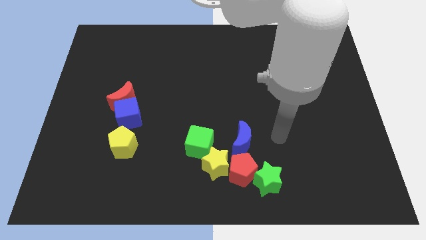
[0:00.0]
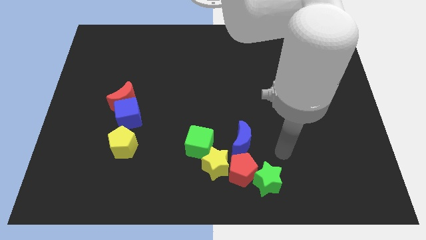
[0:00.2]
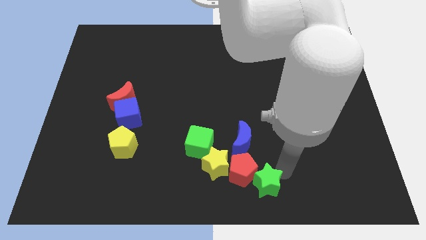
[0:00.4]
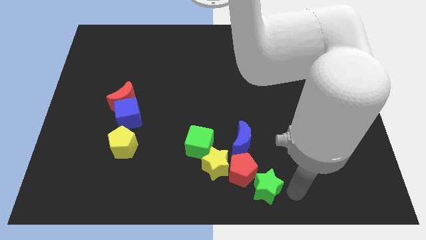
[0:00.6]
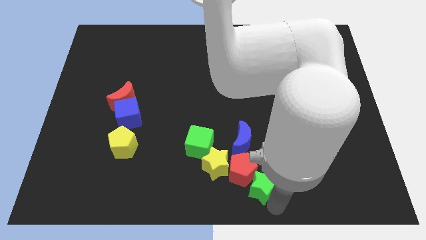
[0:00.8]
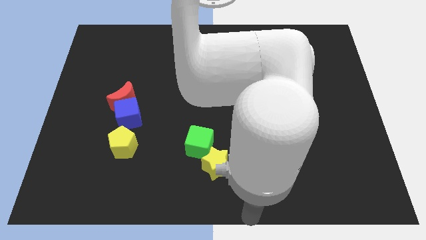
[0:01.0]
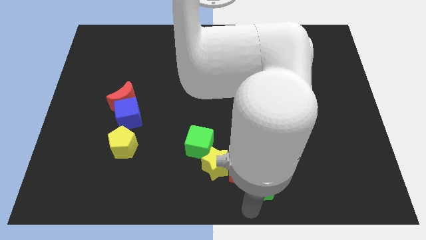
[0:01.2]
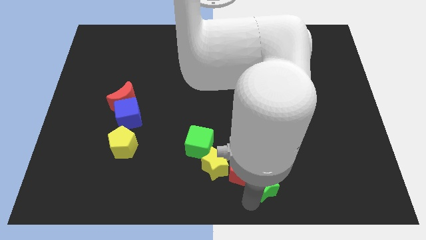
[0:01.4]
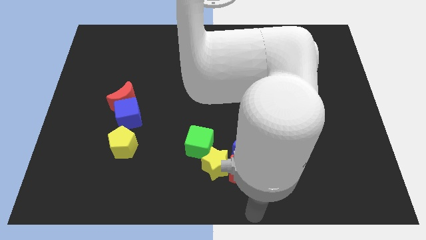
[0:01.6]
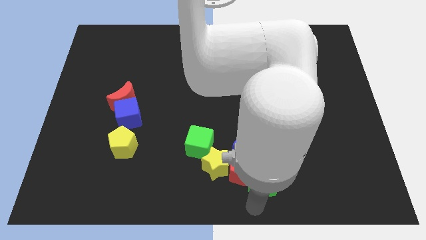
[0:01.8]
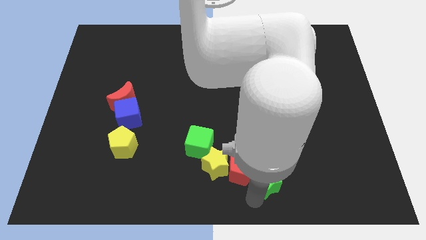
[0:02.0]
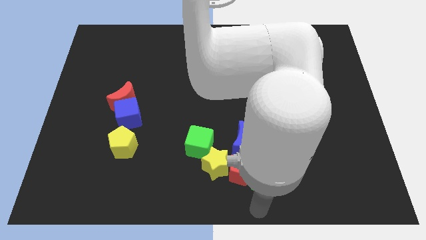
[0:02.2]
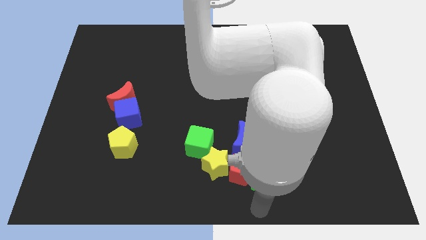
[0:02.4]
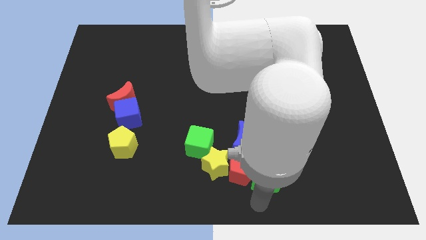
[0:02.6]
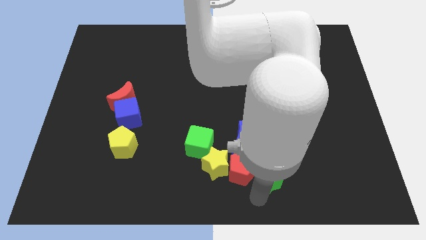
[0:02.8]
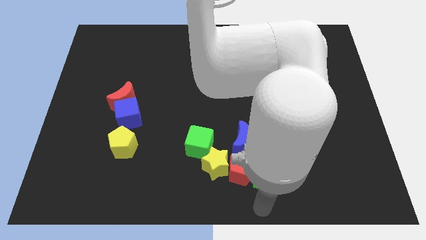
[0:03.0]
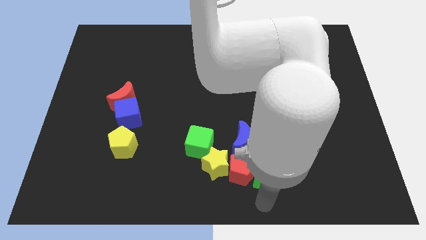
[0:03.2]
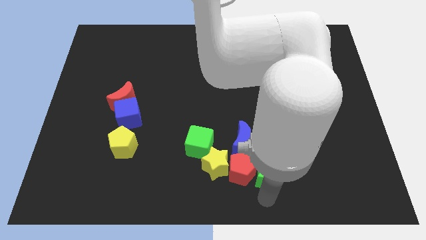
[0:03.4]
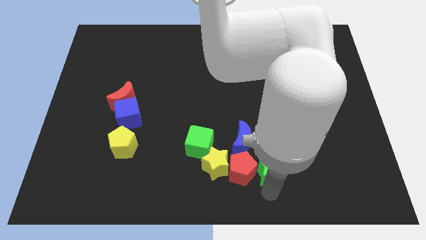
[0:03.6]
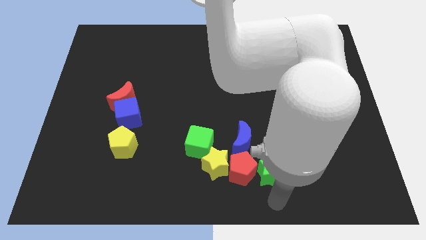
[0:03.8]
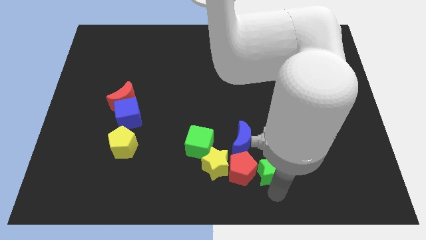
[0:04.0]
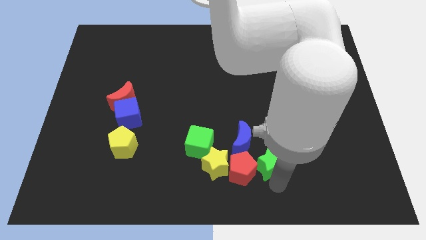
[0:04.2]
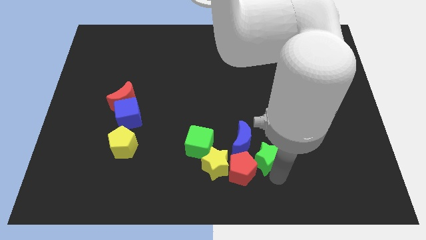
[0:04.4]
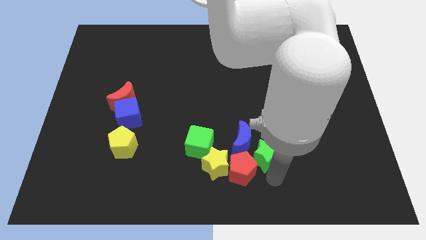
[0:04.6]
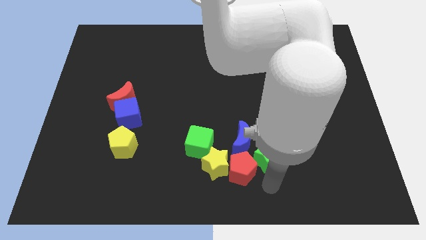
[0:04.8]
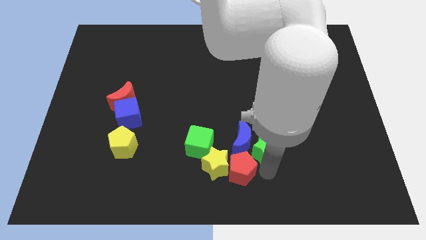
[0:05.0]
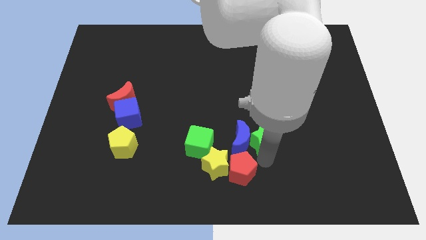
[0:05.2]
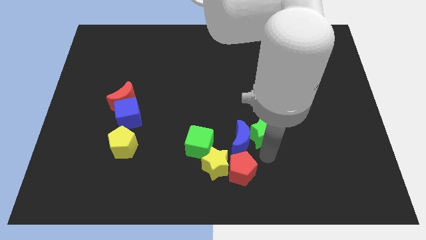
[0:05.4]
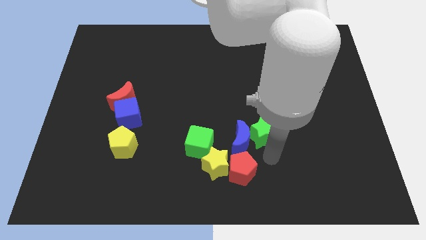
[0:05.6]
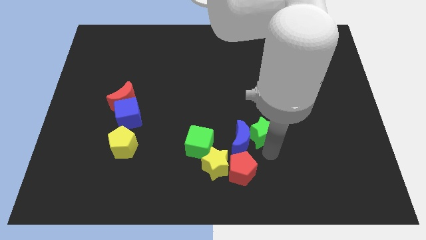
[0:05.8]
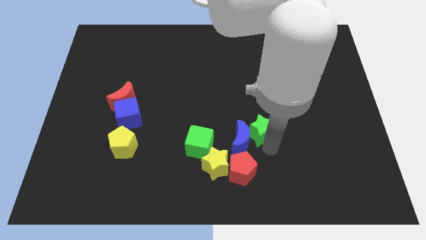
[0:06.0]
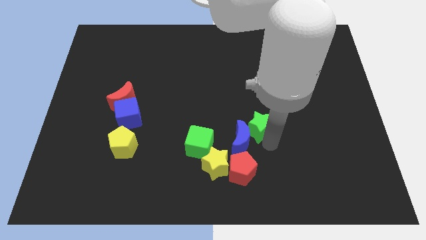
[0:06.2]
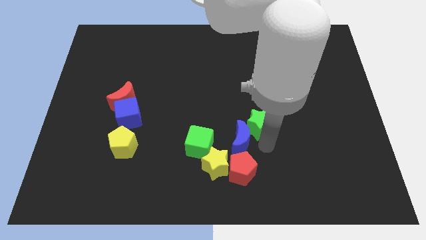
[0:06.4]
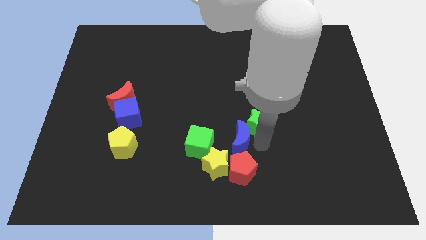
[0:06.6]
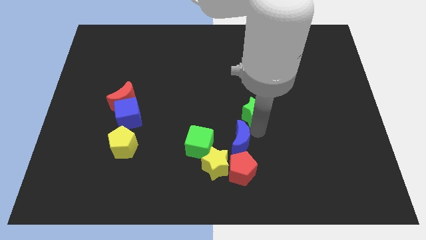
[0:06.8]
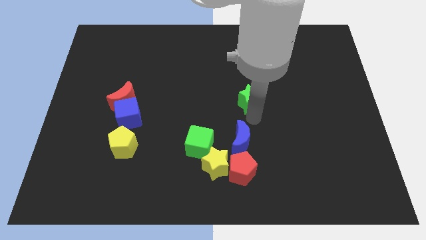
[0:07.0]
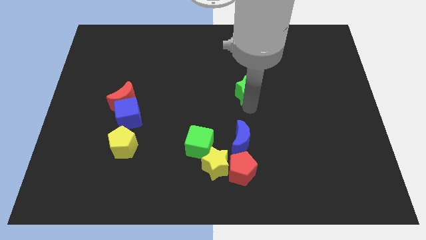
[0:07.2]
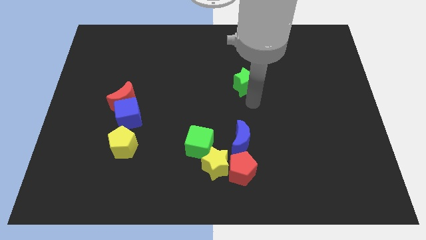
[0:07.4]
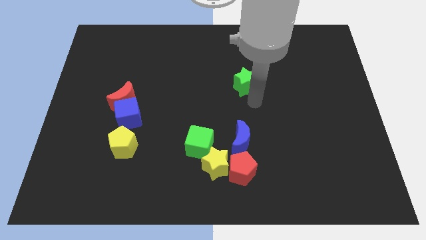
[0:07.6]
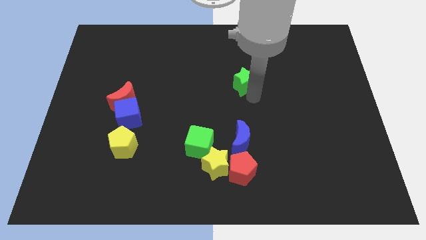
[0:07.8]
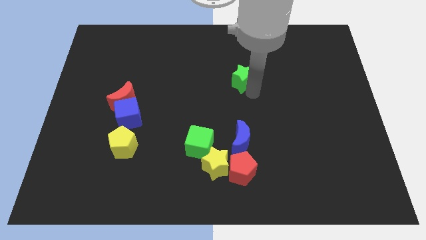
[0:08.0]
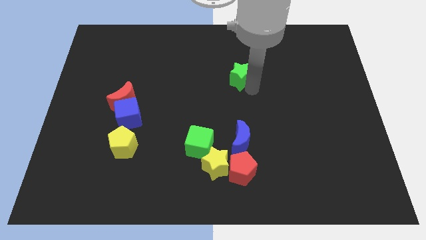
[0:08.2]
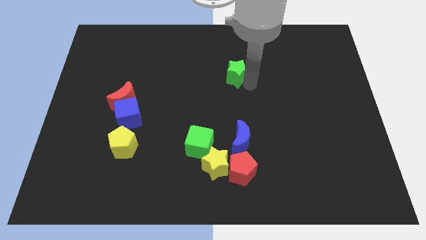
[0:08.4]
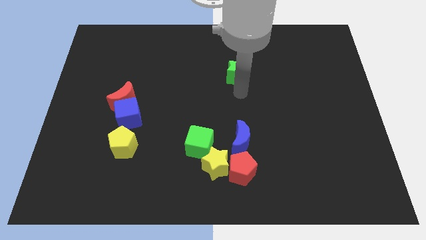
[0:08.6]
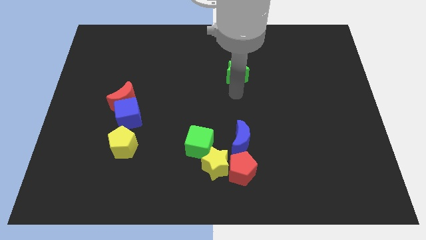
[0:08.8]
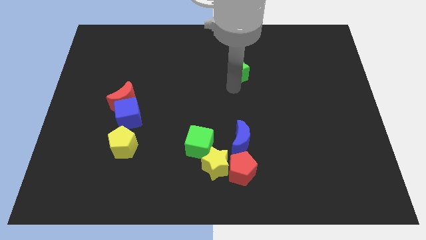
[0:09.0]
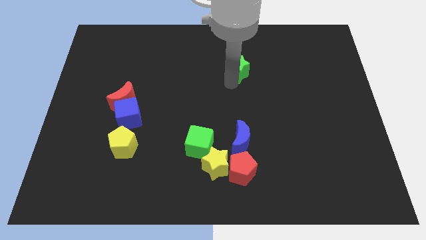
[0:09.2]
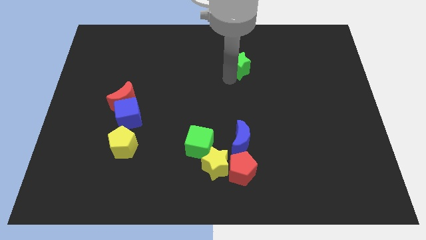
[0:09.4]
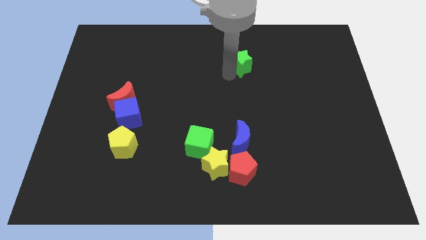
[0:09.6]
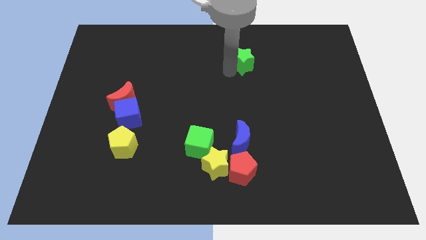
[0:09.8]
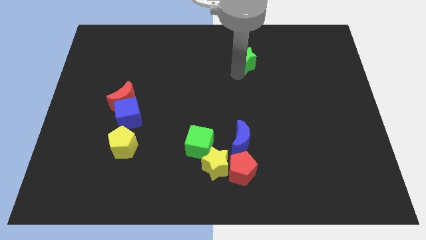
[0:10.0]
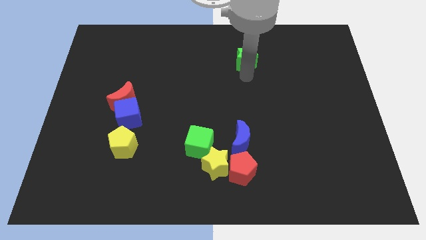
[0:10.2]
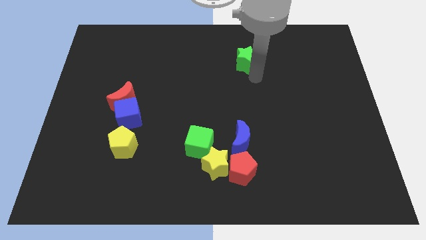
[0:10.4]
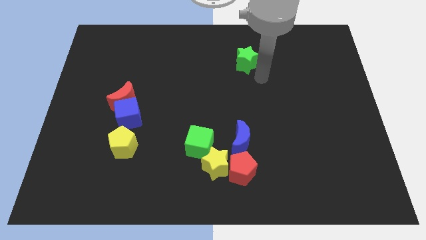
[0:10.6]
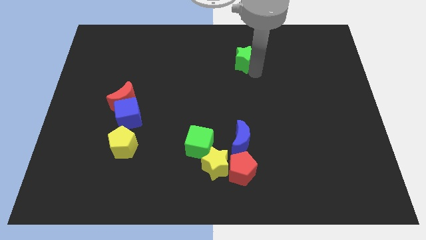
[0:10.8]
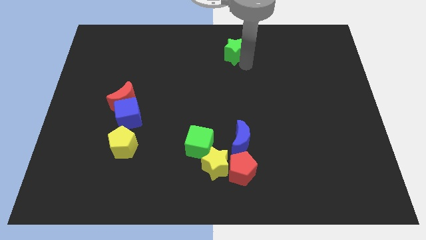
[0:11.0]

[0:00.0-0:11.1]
slide the green star to the top side

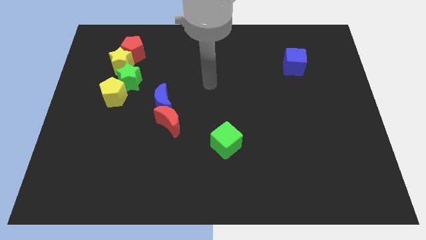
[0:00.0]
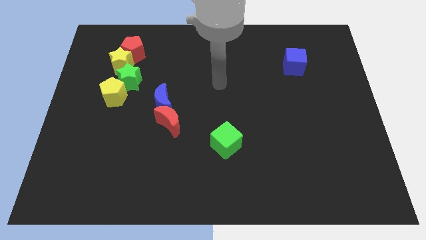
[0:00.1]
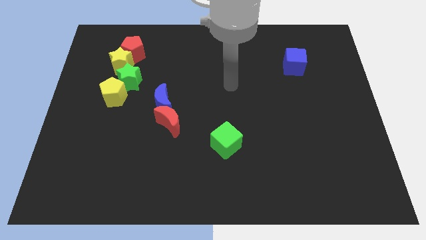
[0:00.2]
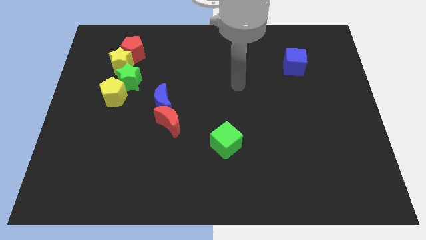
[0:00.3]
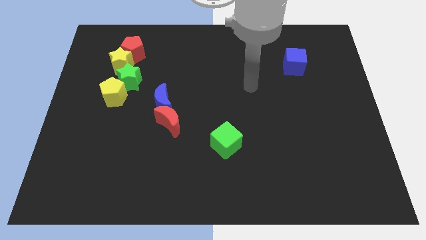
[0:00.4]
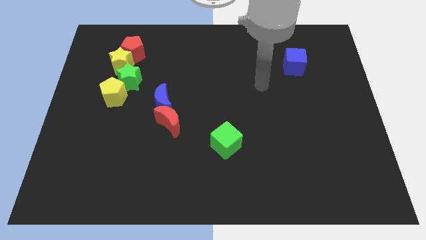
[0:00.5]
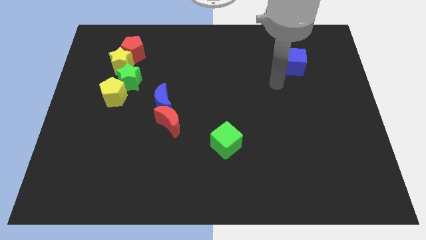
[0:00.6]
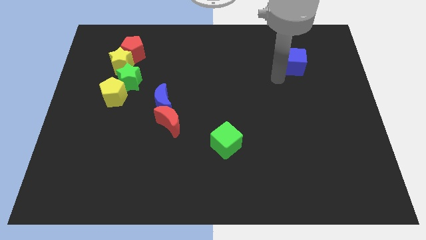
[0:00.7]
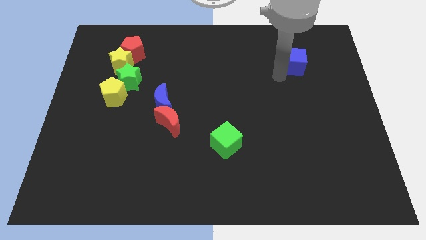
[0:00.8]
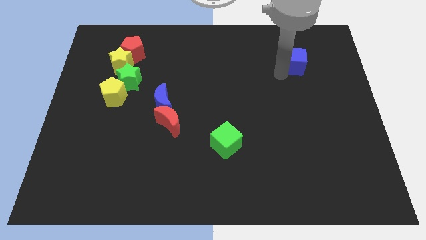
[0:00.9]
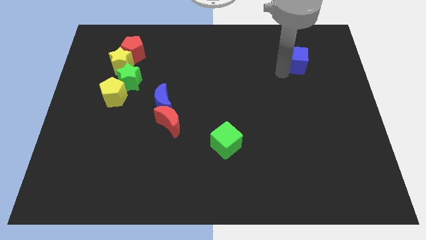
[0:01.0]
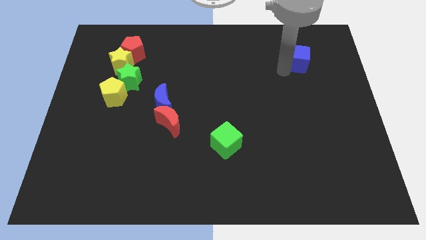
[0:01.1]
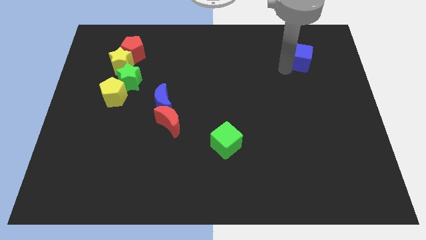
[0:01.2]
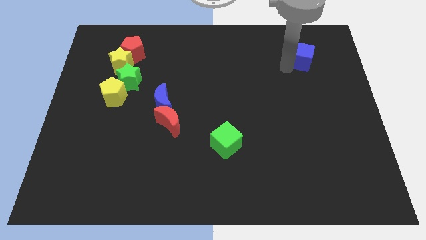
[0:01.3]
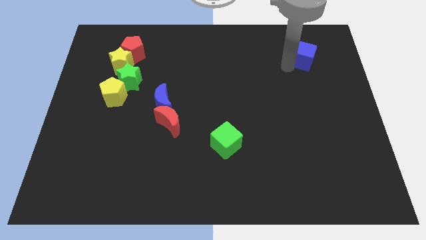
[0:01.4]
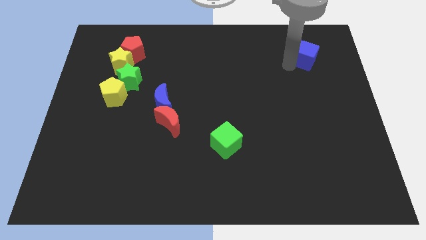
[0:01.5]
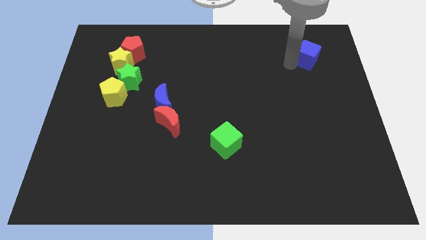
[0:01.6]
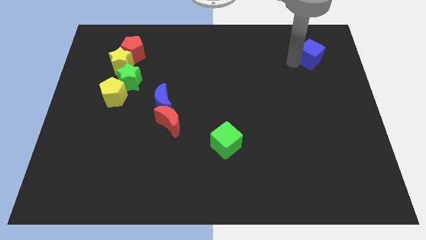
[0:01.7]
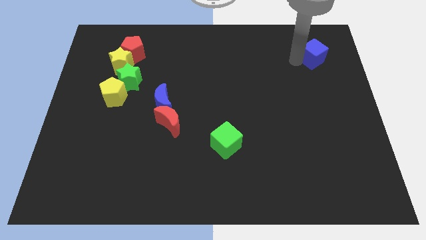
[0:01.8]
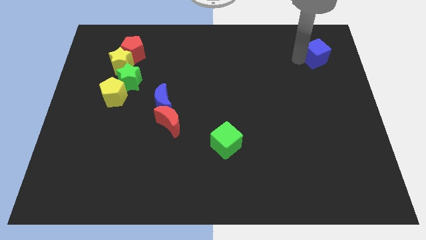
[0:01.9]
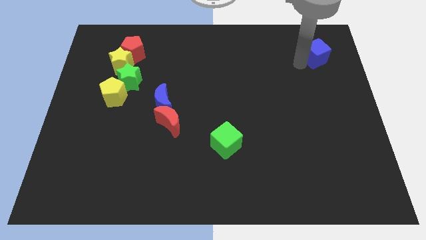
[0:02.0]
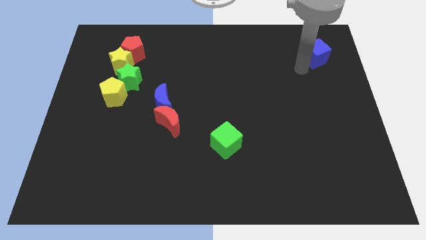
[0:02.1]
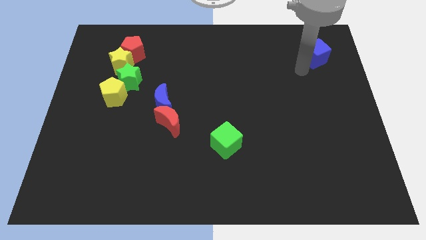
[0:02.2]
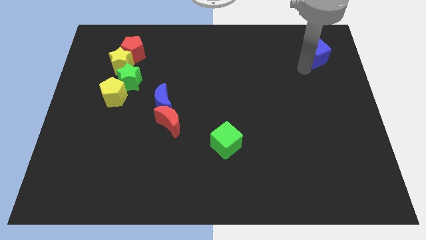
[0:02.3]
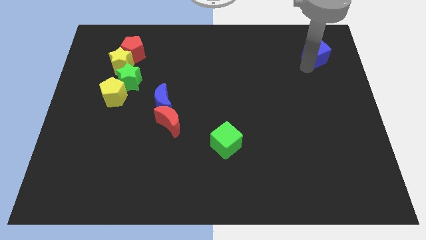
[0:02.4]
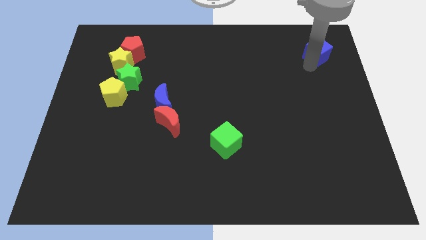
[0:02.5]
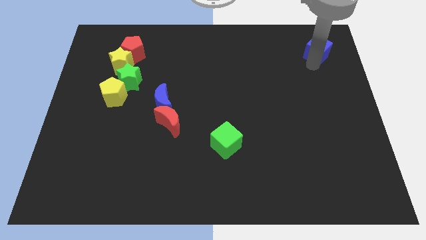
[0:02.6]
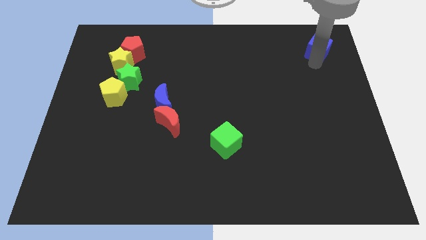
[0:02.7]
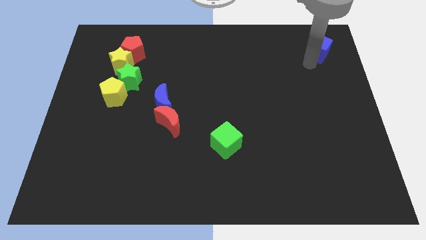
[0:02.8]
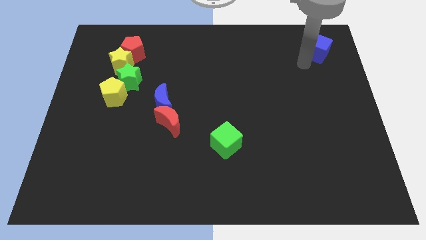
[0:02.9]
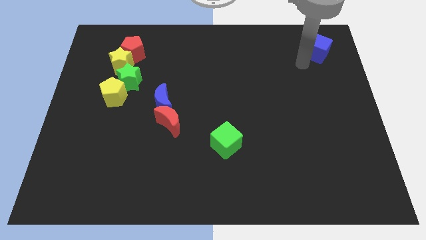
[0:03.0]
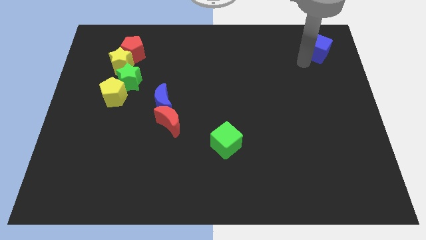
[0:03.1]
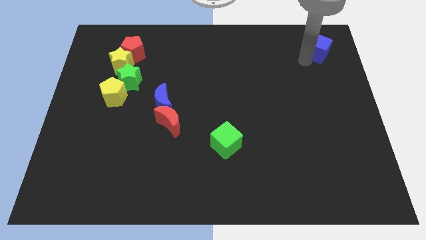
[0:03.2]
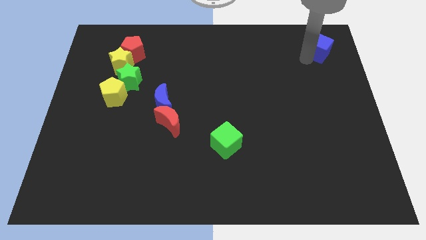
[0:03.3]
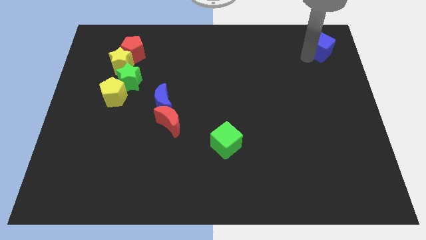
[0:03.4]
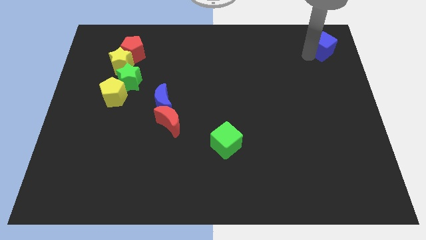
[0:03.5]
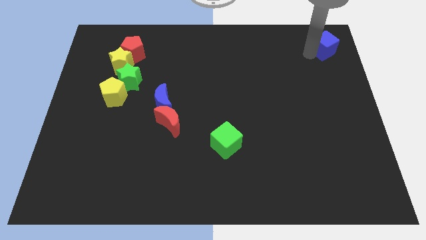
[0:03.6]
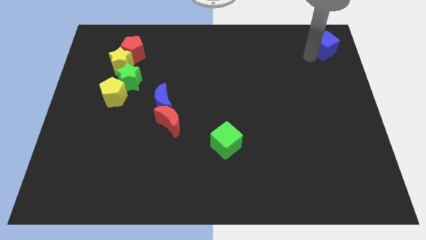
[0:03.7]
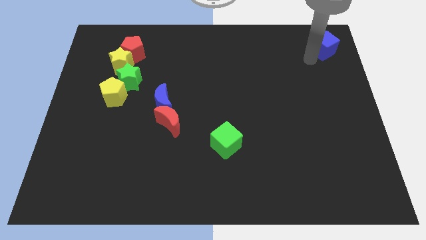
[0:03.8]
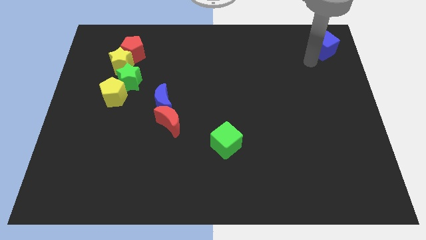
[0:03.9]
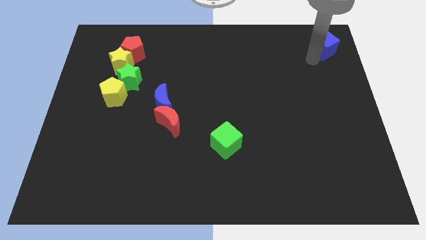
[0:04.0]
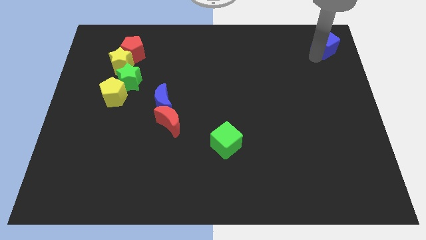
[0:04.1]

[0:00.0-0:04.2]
push the blue cube to the top right
